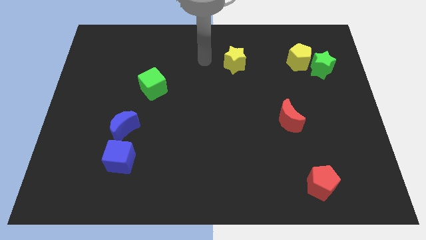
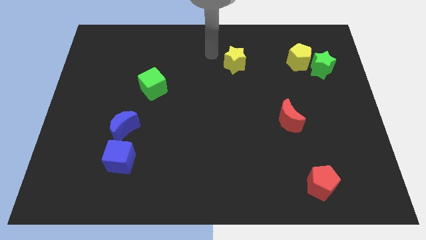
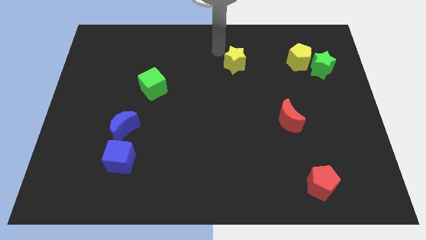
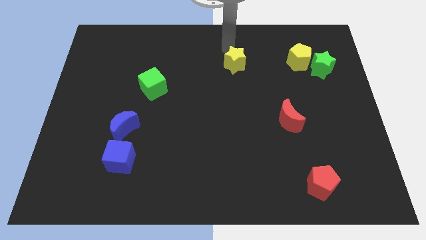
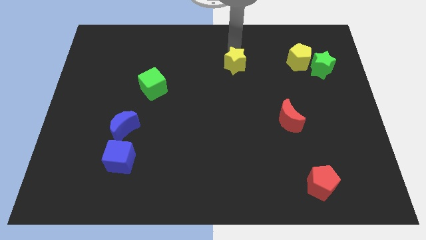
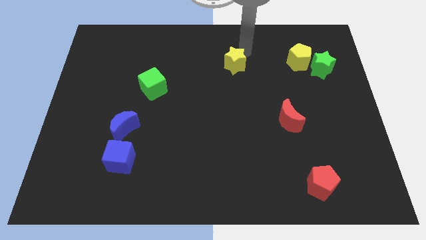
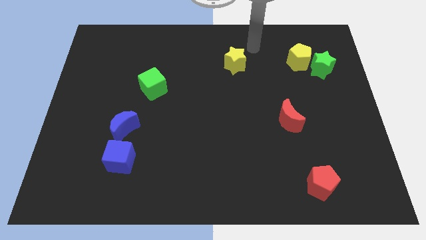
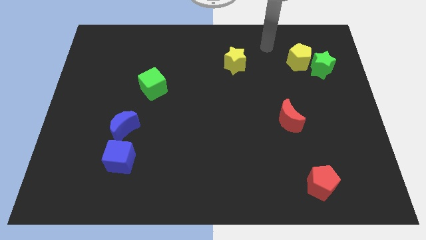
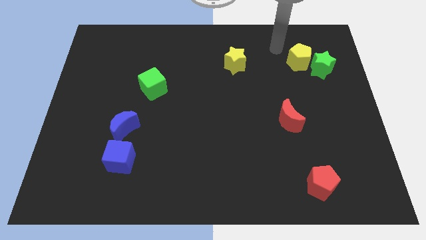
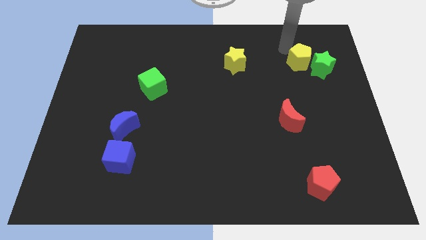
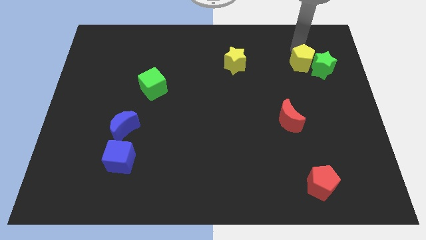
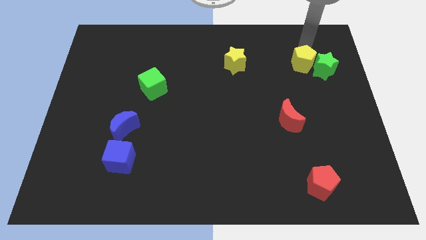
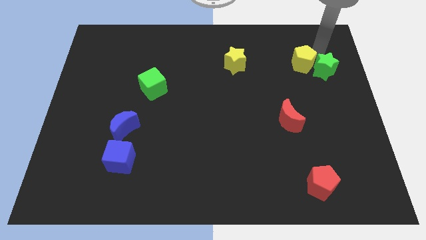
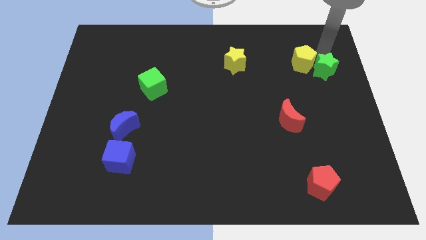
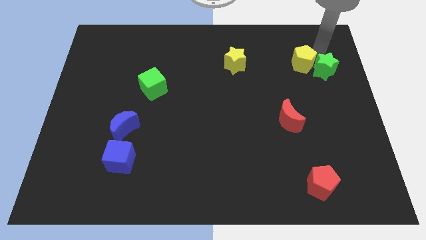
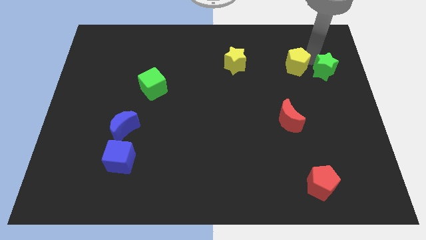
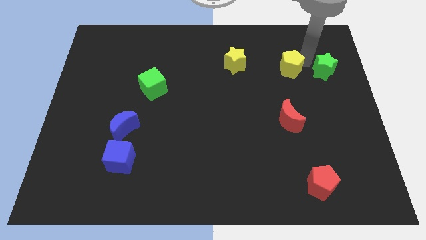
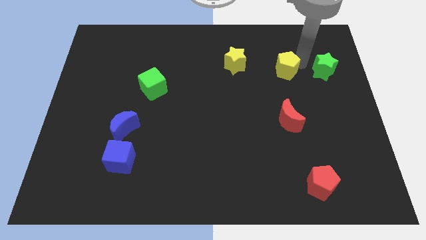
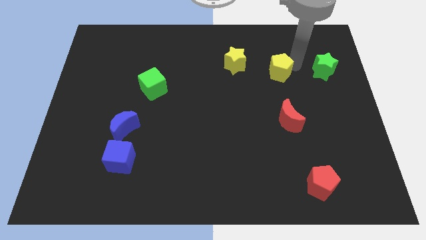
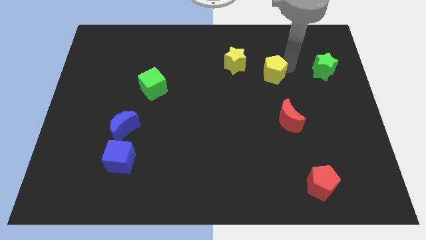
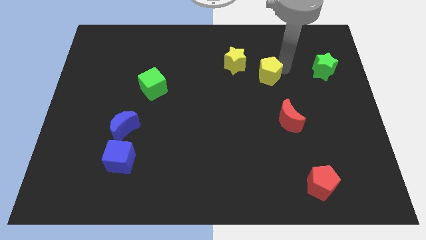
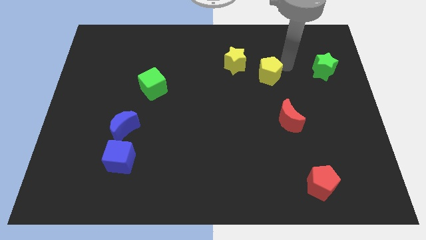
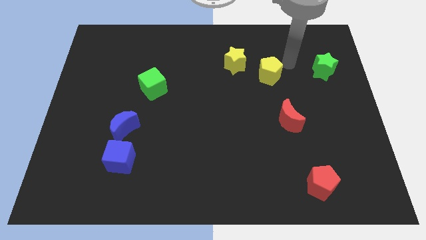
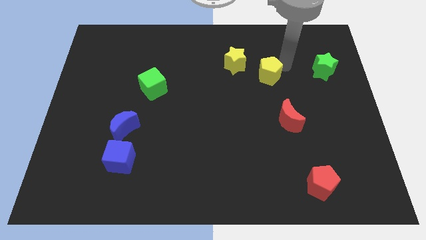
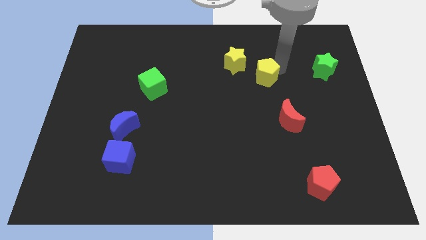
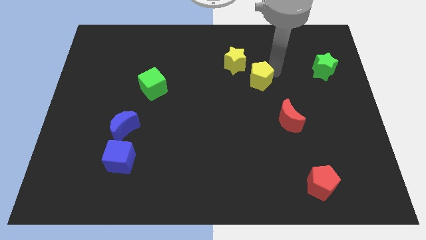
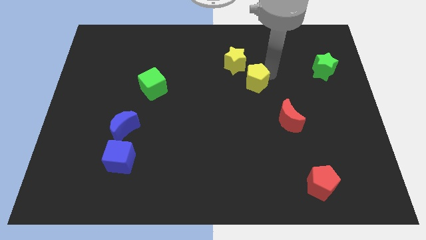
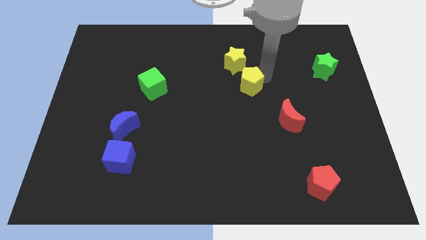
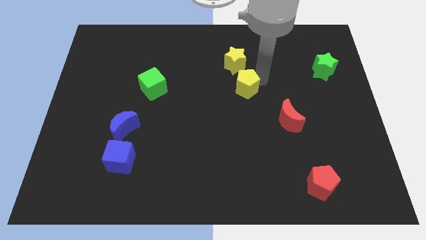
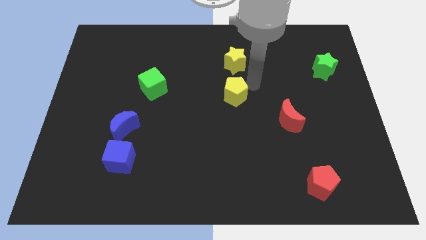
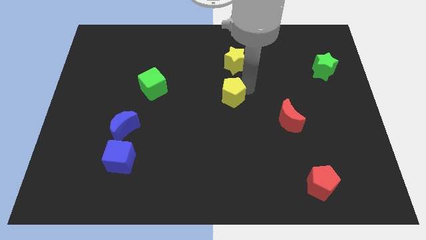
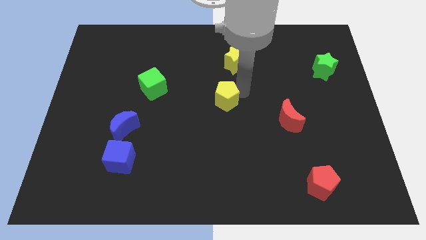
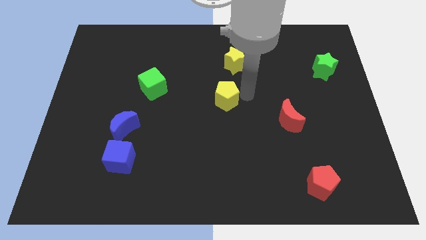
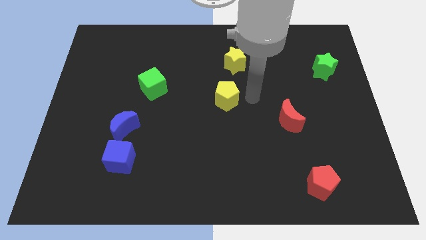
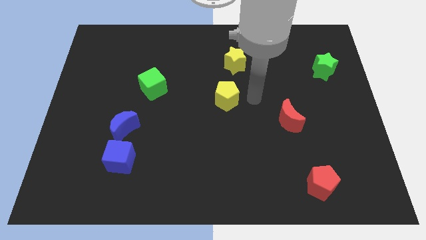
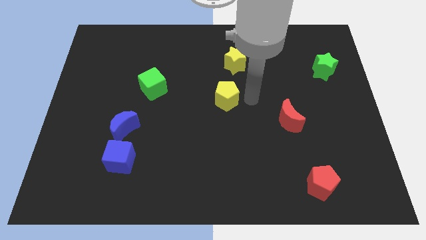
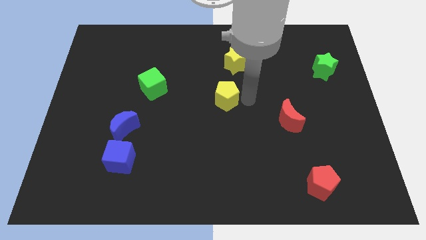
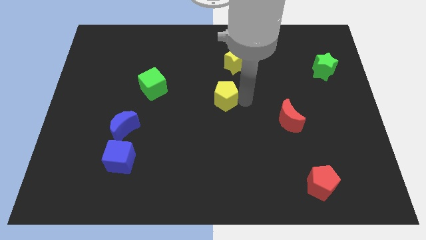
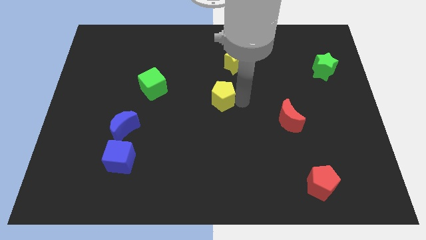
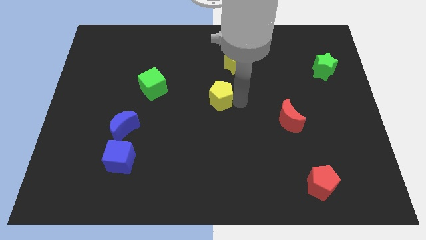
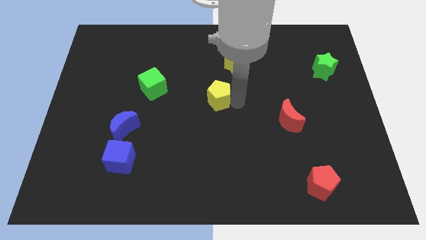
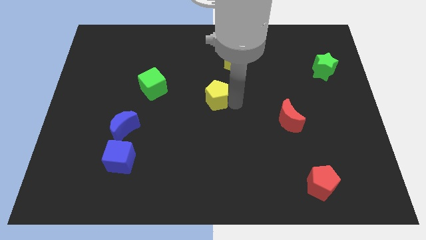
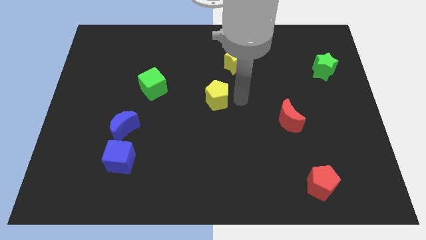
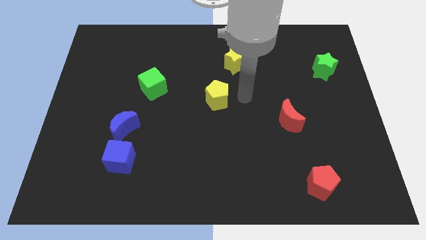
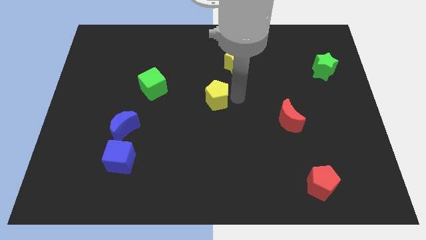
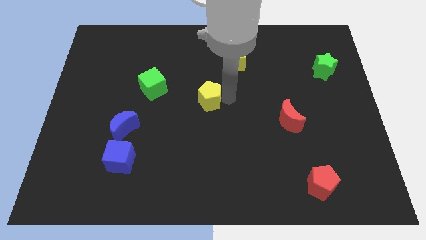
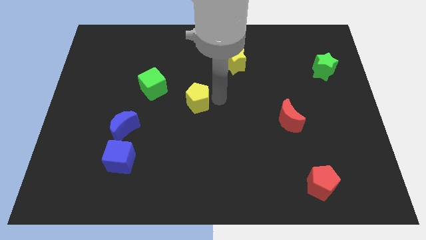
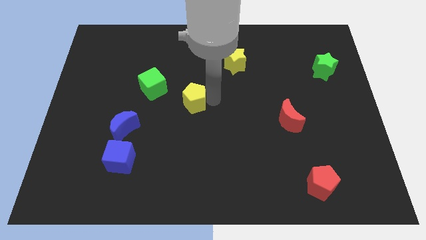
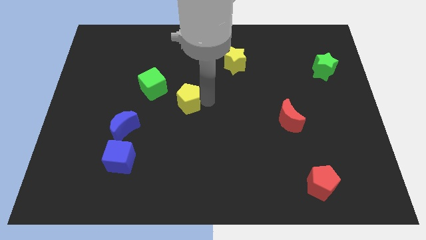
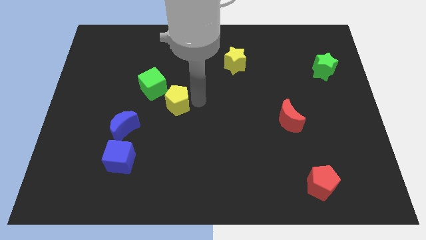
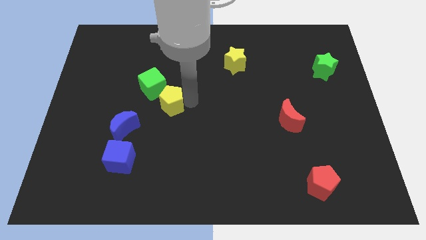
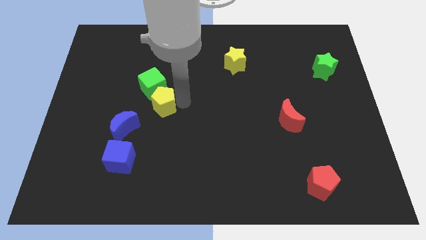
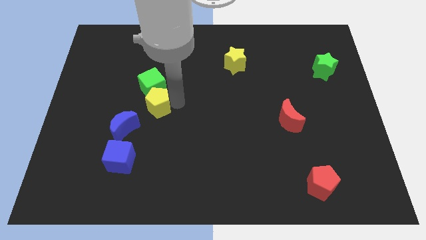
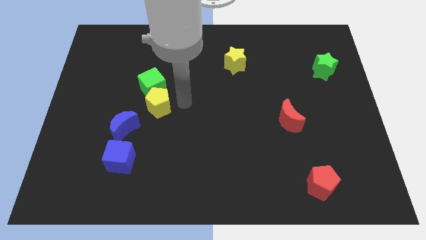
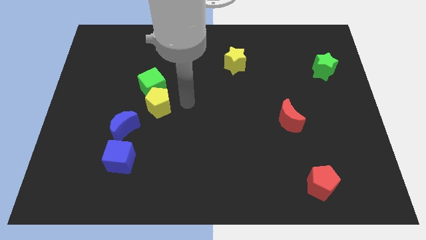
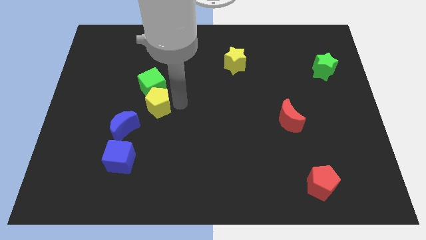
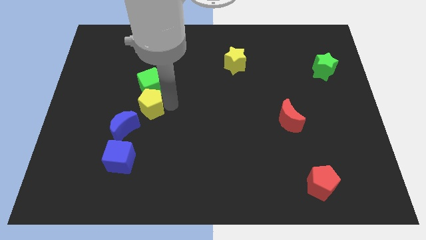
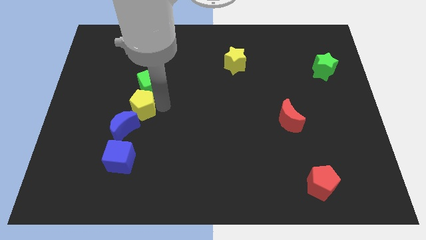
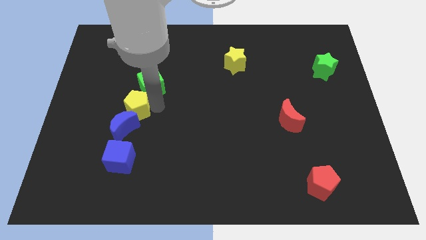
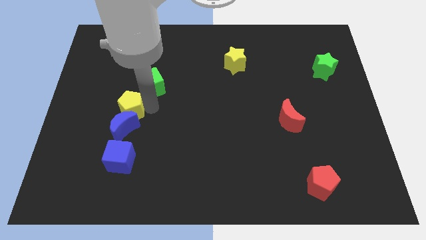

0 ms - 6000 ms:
slide the yellow pentagon to the top left of the blue moon

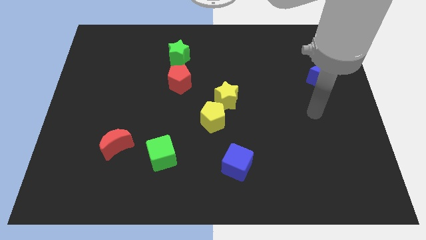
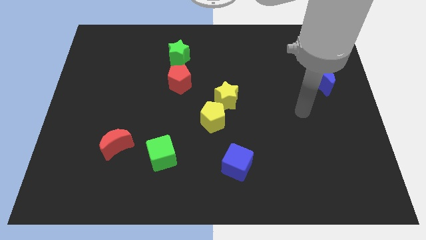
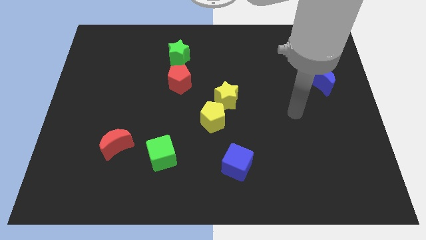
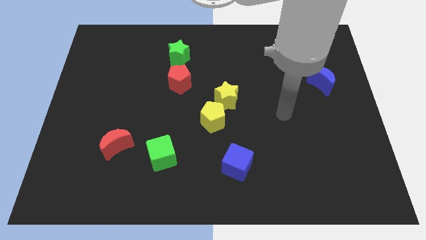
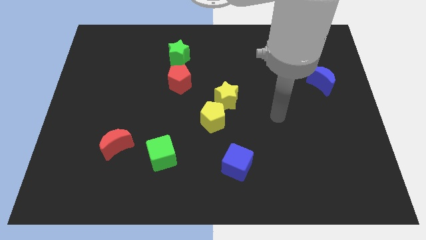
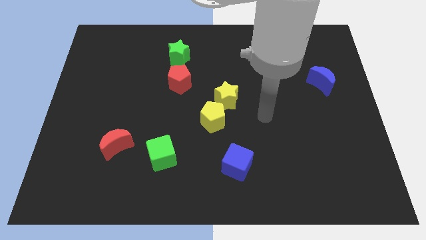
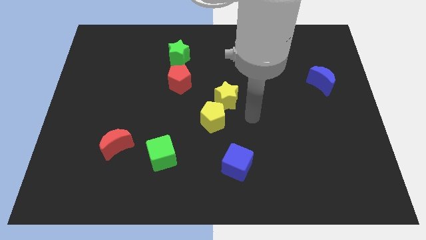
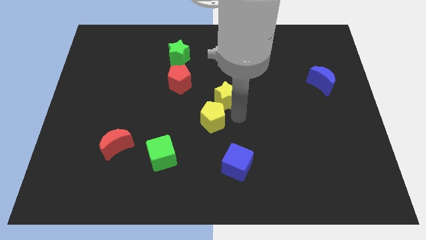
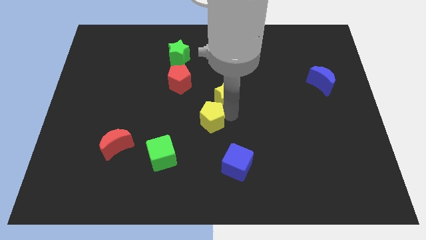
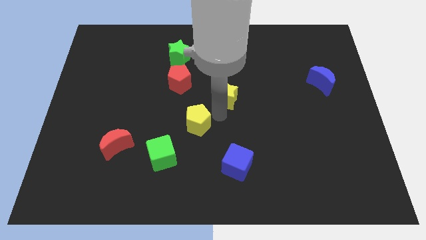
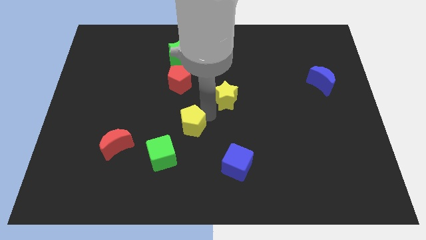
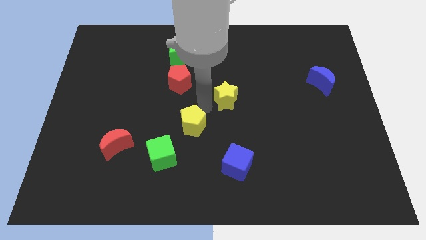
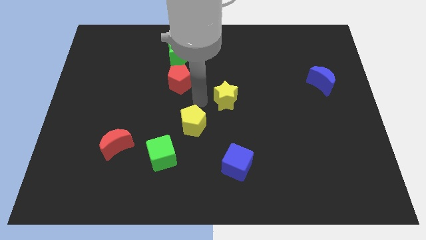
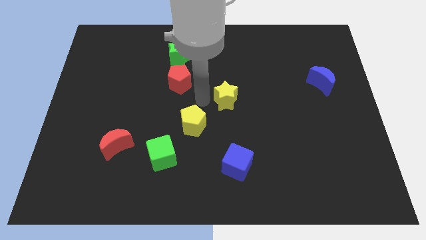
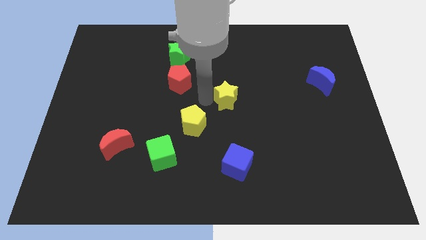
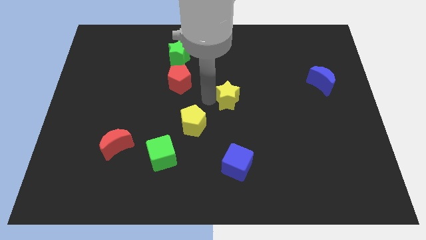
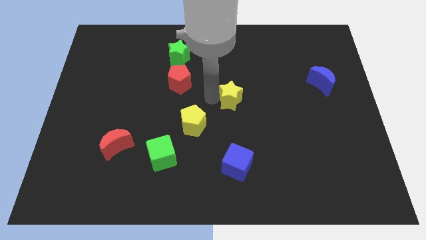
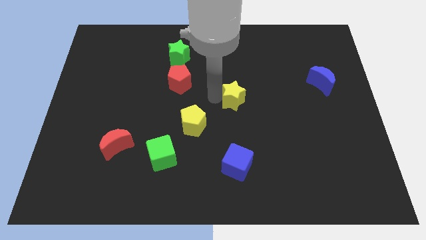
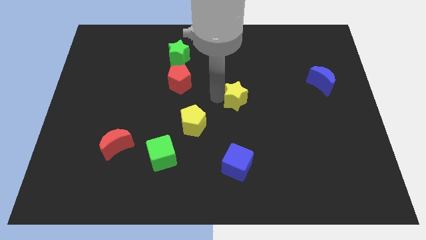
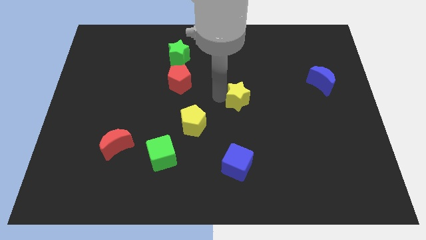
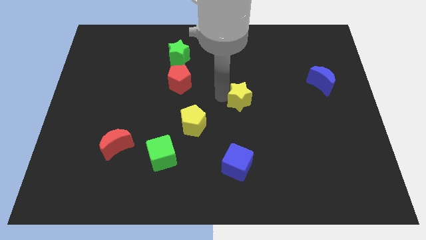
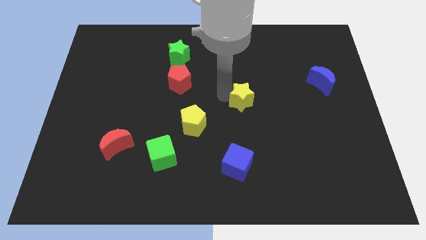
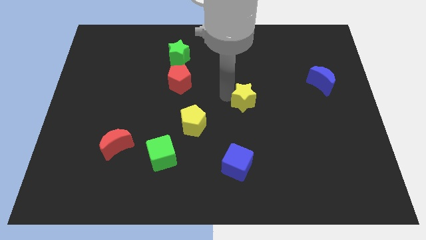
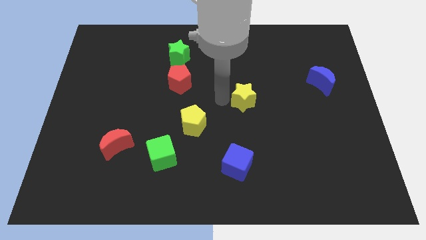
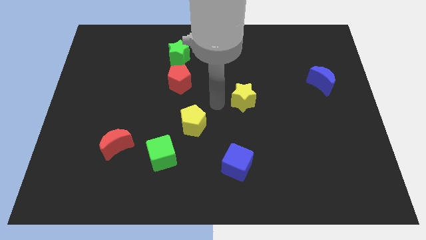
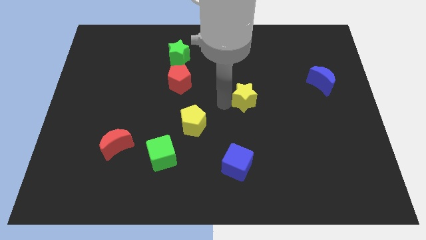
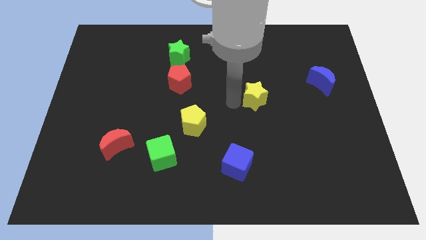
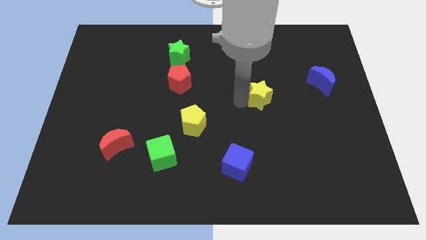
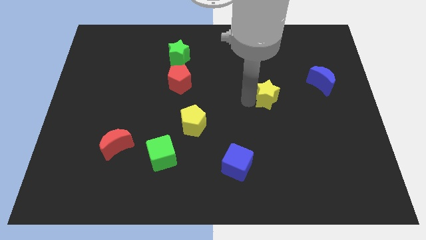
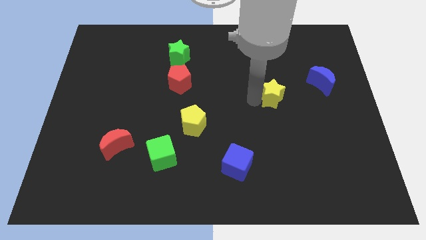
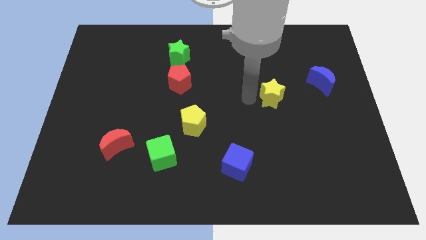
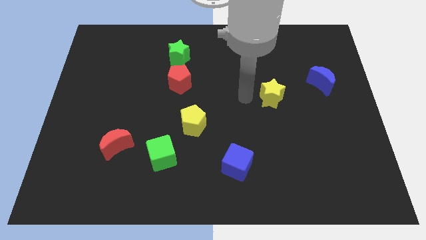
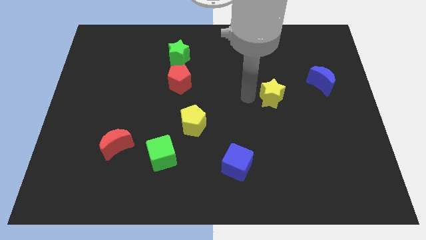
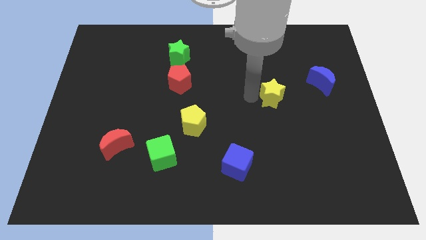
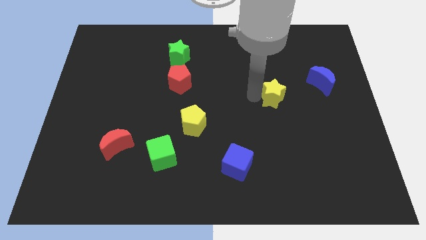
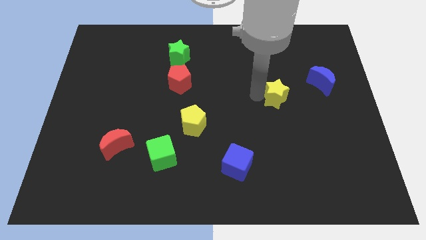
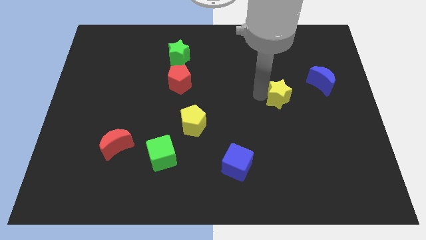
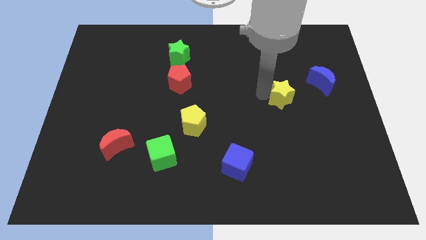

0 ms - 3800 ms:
put the yellow star to the bottom left side of the blue moon
